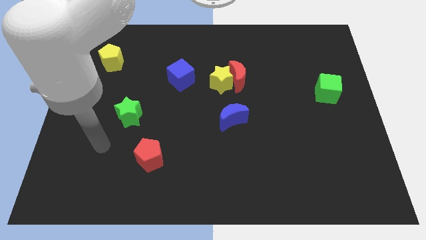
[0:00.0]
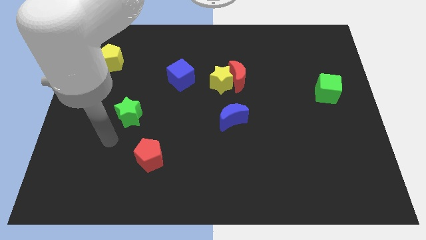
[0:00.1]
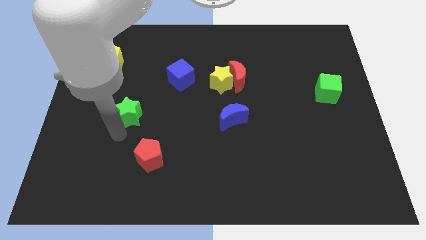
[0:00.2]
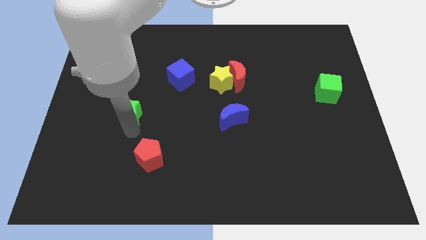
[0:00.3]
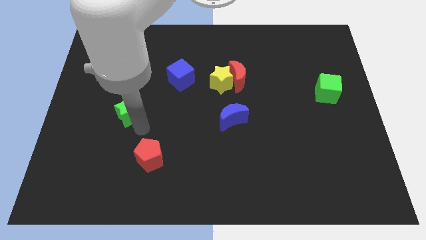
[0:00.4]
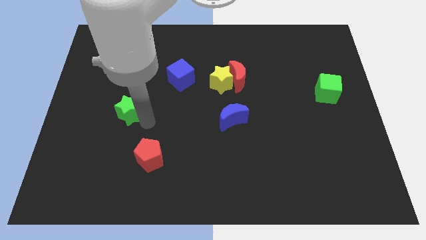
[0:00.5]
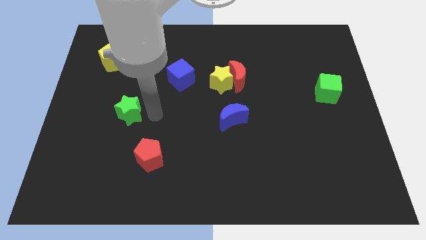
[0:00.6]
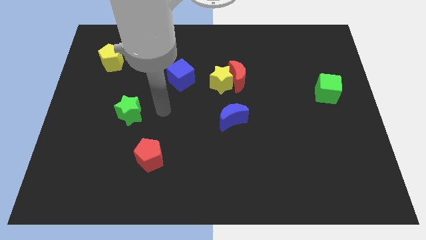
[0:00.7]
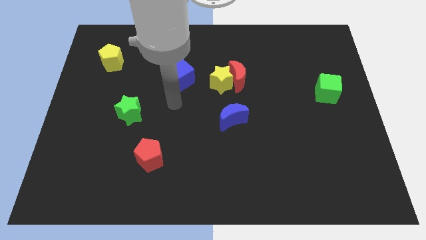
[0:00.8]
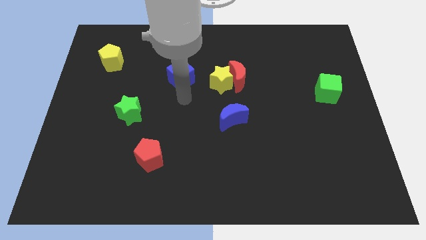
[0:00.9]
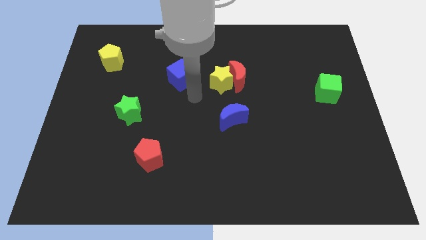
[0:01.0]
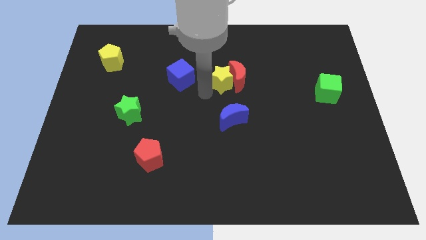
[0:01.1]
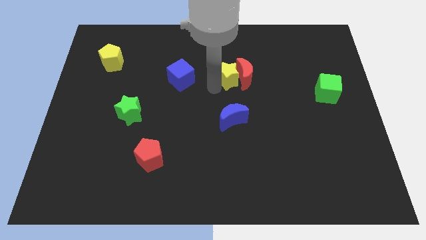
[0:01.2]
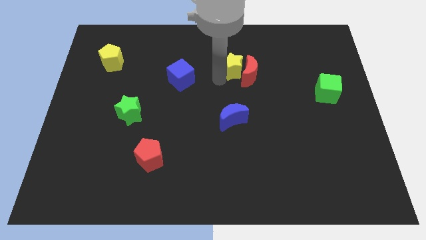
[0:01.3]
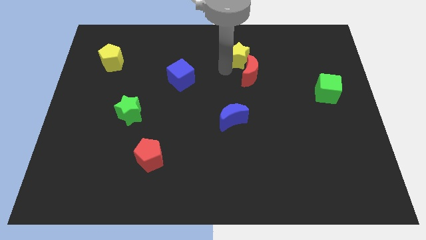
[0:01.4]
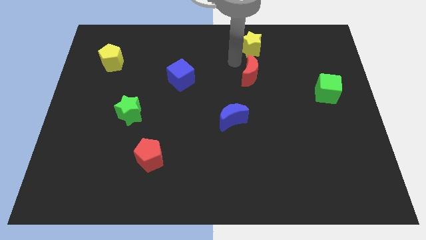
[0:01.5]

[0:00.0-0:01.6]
separate the red moon from the yellow star

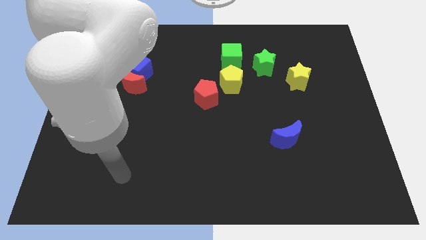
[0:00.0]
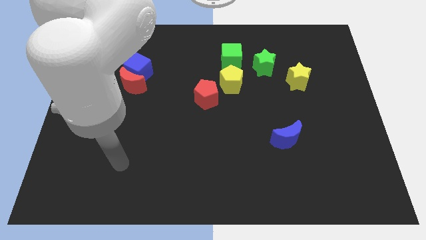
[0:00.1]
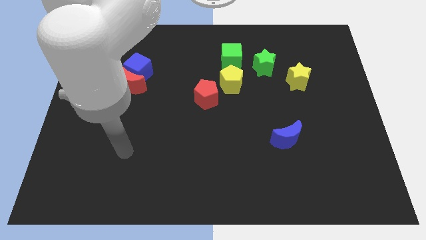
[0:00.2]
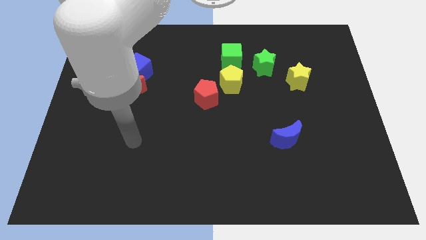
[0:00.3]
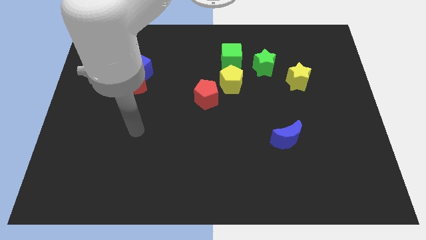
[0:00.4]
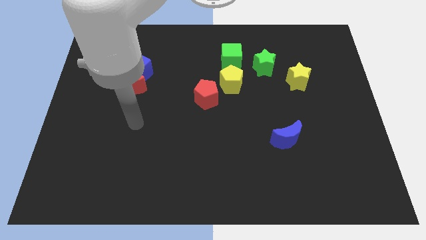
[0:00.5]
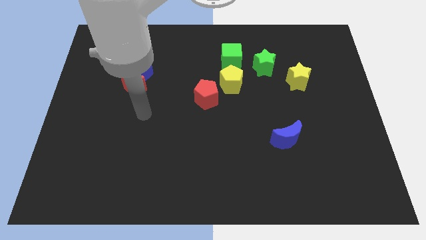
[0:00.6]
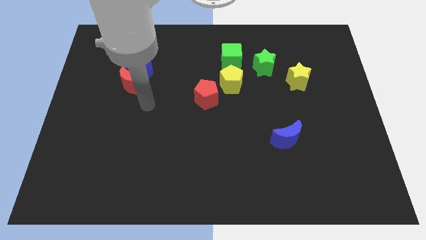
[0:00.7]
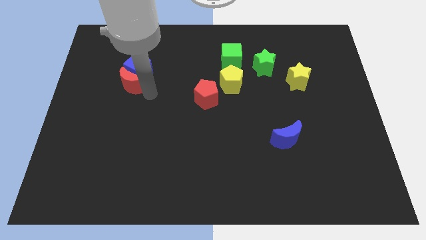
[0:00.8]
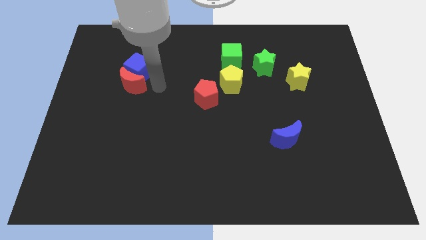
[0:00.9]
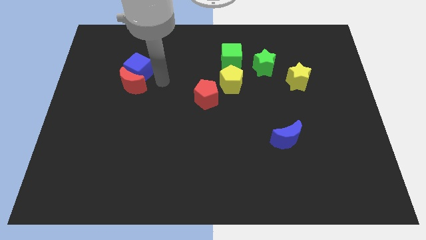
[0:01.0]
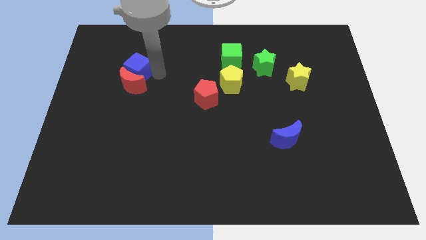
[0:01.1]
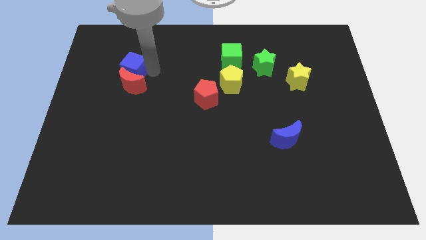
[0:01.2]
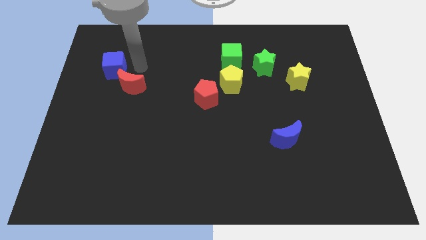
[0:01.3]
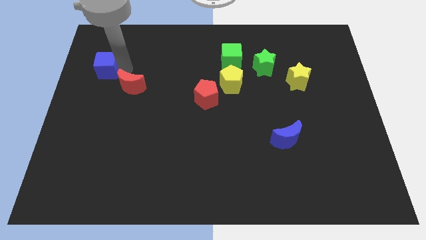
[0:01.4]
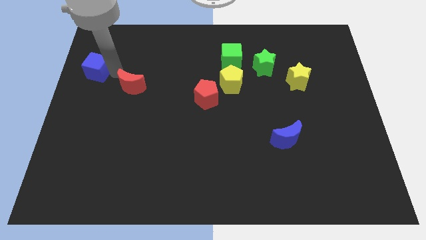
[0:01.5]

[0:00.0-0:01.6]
pull the red moon apart from the blue cube

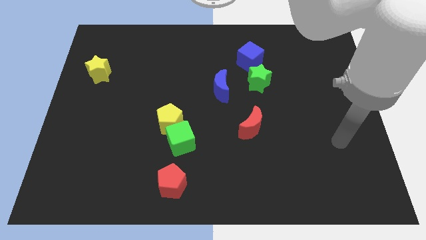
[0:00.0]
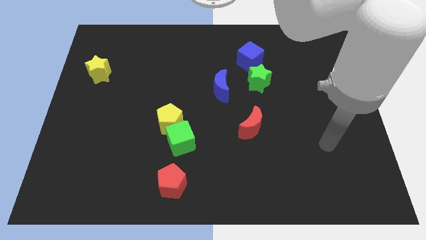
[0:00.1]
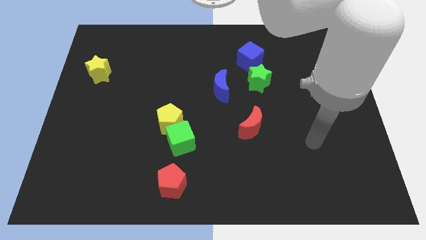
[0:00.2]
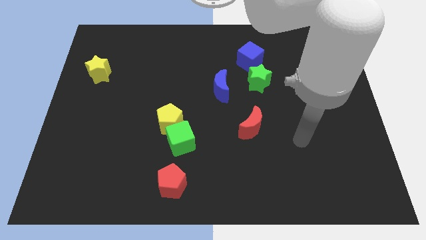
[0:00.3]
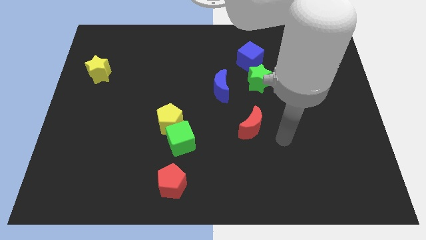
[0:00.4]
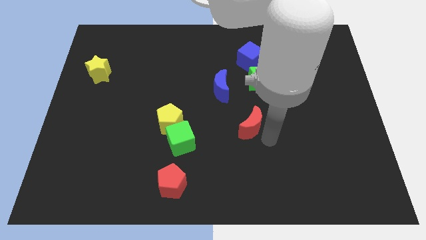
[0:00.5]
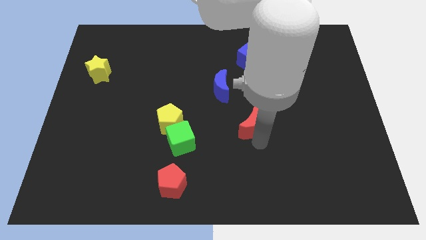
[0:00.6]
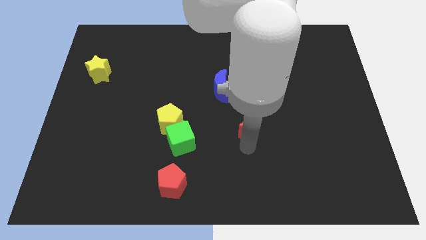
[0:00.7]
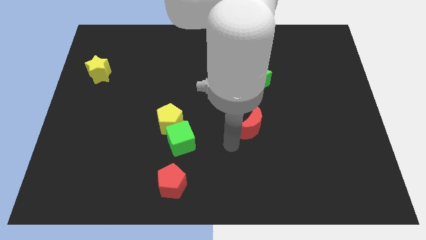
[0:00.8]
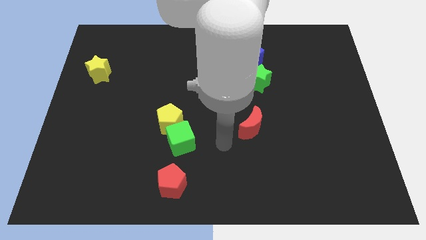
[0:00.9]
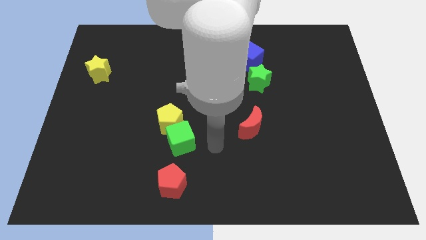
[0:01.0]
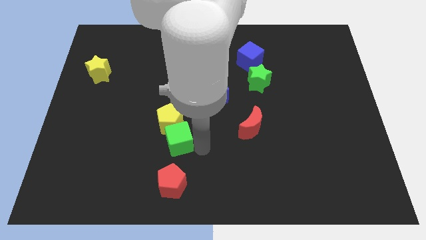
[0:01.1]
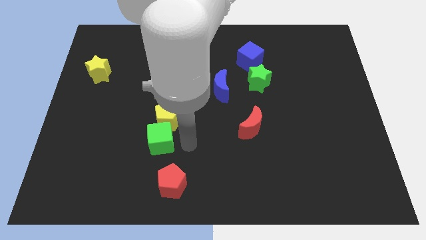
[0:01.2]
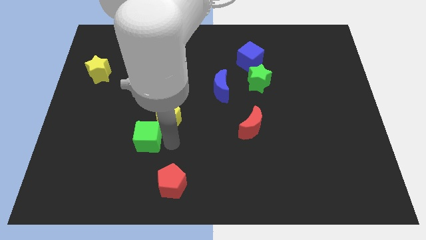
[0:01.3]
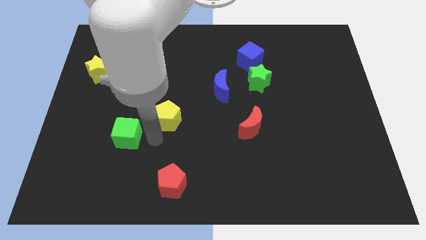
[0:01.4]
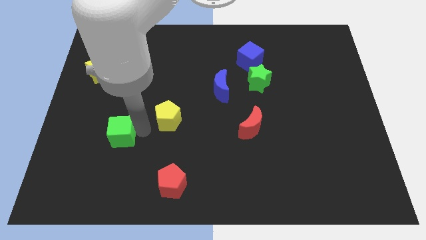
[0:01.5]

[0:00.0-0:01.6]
separate the yellow pentagon from the green cube

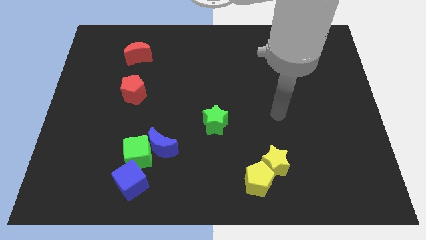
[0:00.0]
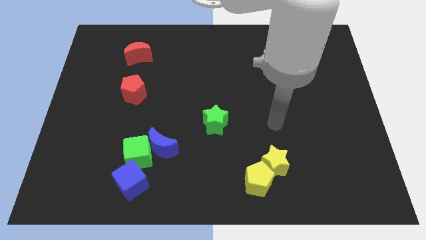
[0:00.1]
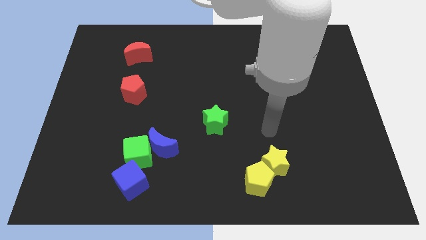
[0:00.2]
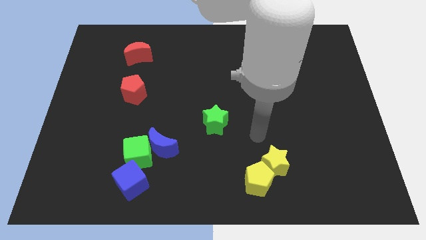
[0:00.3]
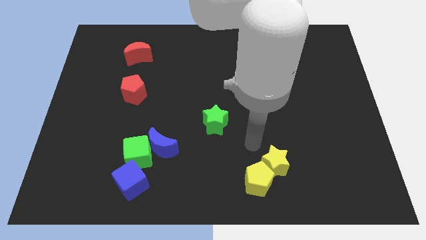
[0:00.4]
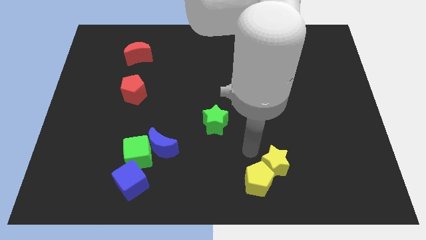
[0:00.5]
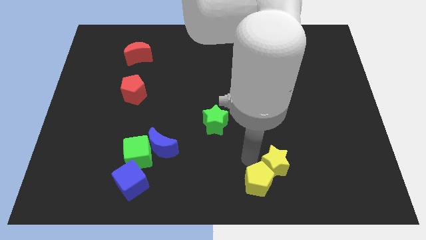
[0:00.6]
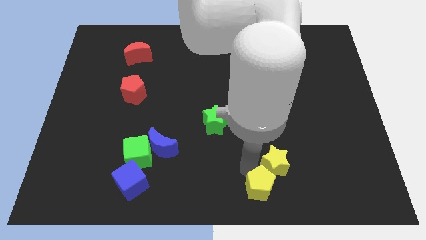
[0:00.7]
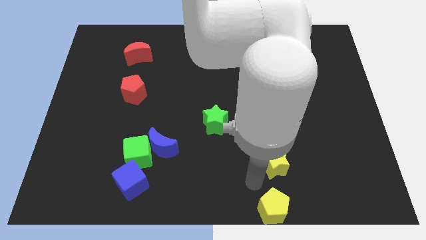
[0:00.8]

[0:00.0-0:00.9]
separate the yellow star from the yellow pentagon

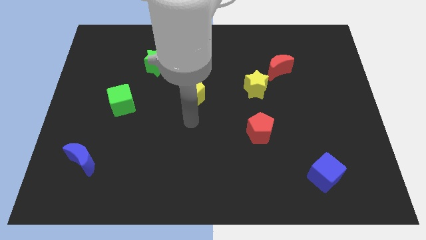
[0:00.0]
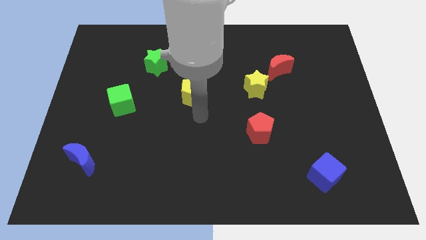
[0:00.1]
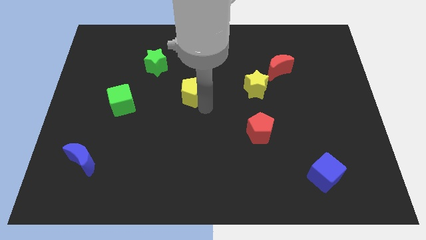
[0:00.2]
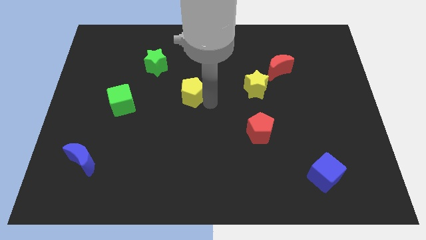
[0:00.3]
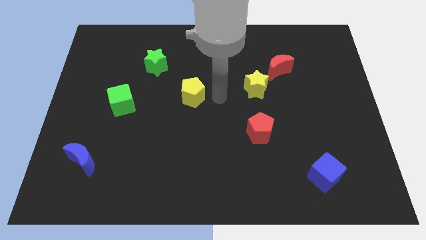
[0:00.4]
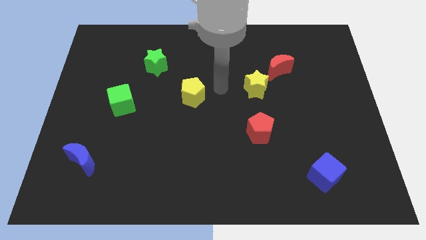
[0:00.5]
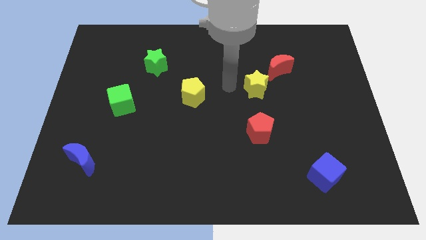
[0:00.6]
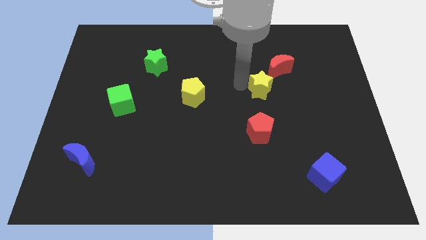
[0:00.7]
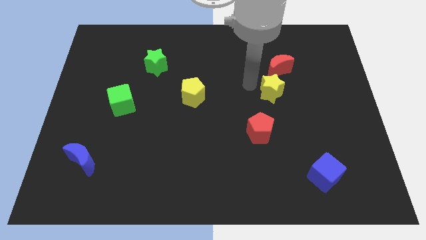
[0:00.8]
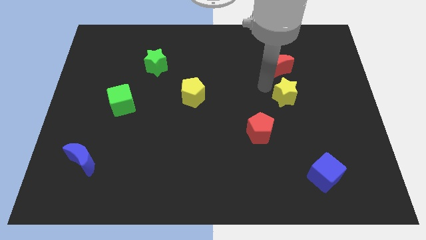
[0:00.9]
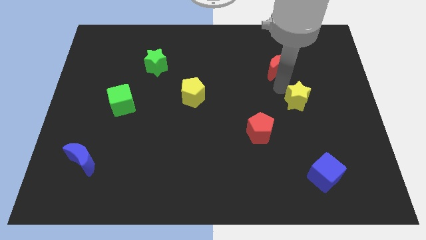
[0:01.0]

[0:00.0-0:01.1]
move the red moon away from the yellow star

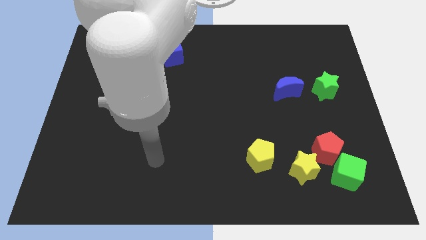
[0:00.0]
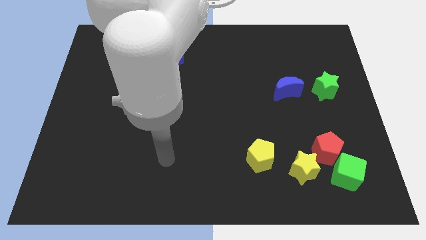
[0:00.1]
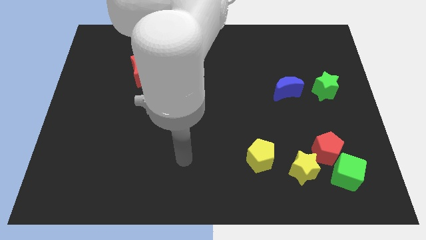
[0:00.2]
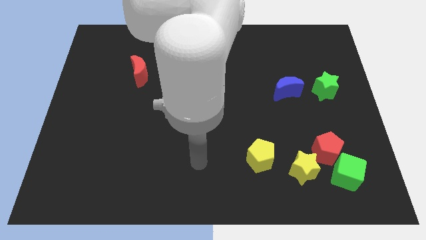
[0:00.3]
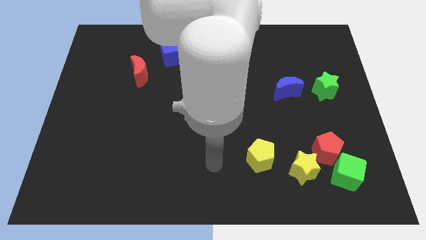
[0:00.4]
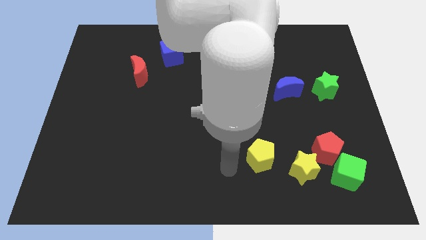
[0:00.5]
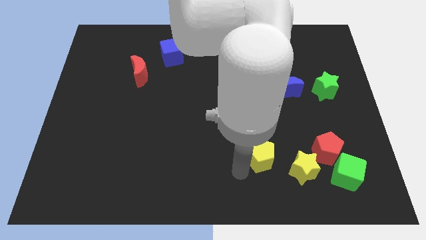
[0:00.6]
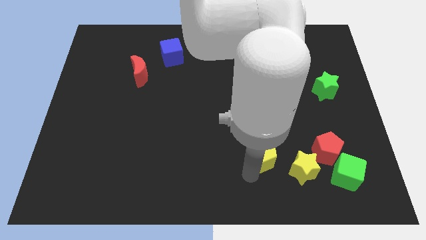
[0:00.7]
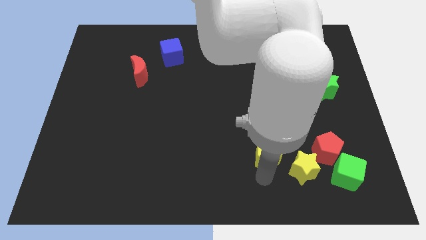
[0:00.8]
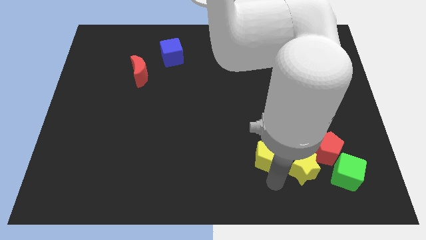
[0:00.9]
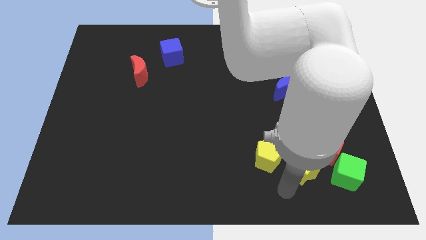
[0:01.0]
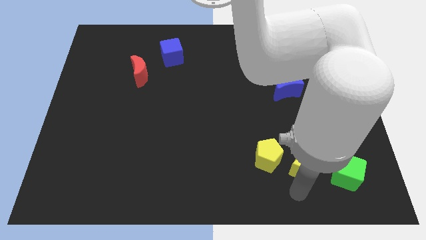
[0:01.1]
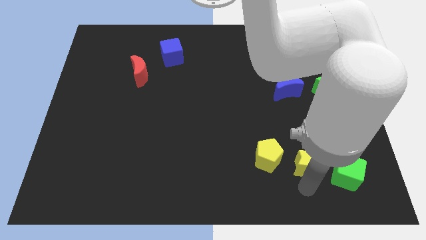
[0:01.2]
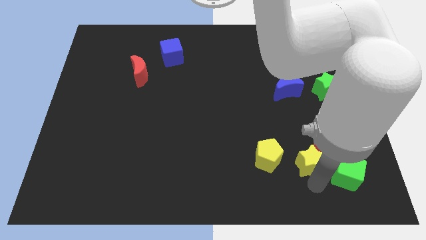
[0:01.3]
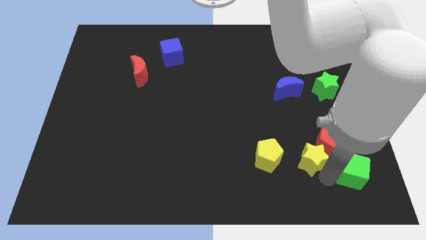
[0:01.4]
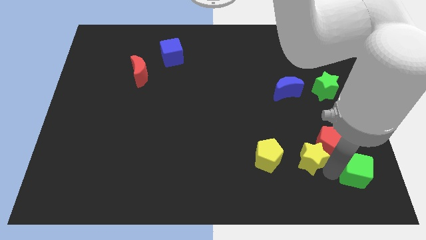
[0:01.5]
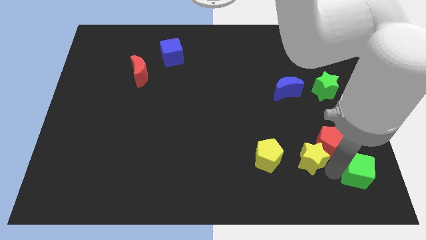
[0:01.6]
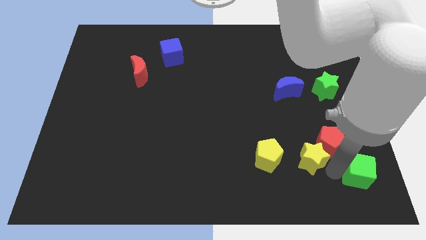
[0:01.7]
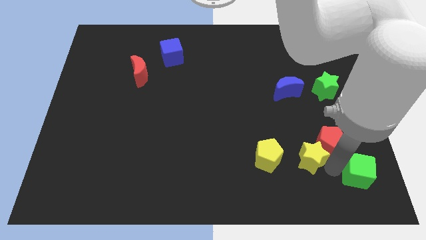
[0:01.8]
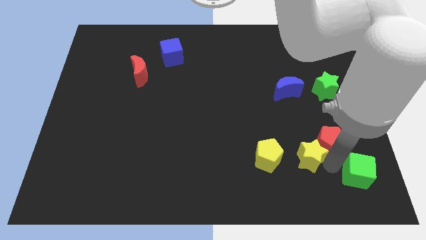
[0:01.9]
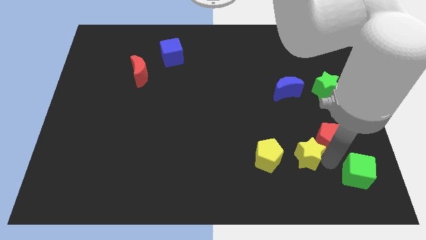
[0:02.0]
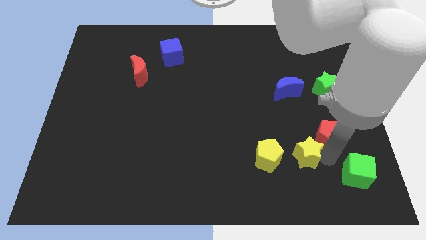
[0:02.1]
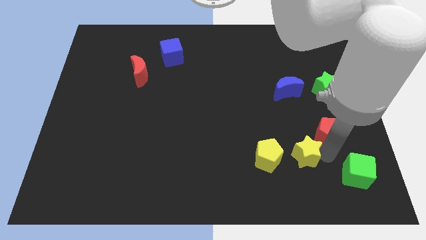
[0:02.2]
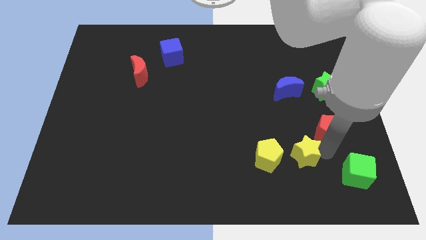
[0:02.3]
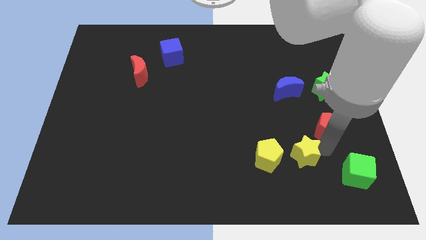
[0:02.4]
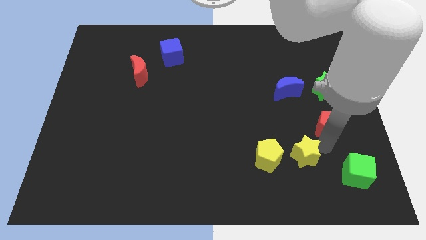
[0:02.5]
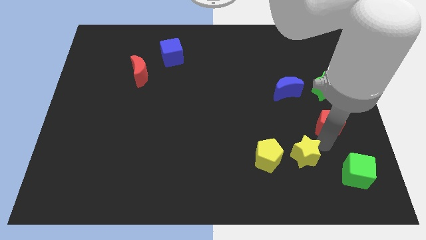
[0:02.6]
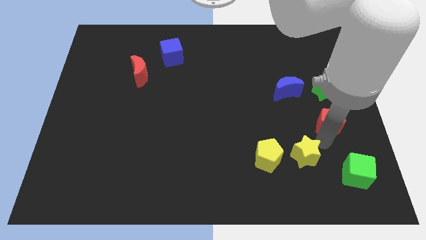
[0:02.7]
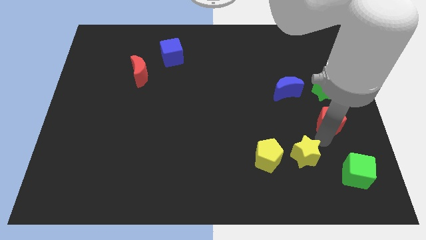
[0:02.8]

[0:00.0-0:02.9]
pull the red pentagon apart from the green cube and yellow star
